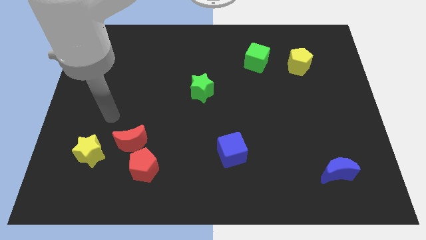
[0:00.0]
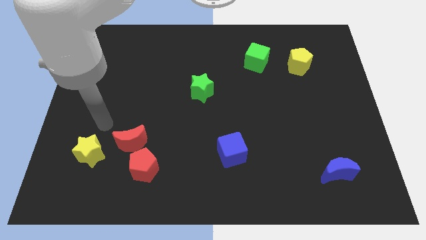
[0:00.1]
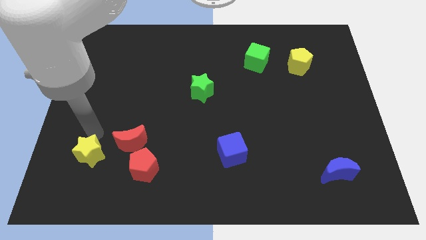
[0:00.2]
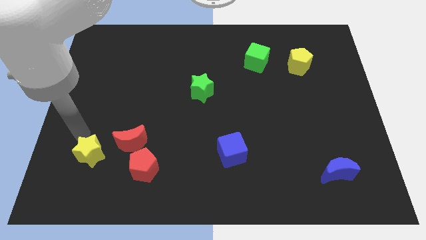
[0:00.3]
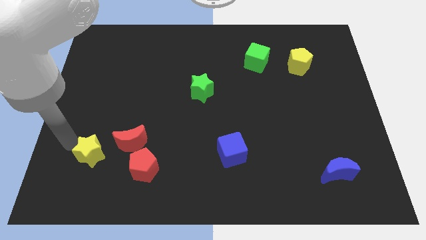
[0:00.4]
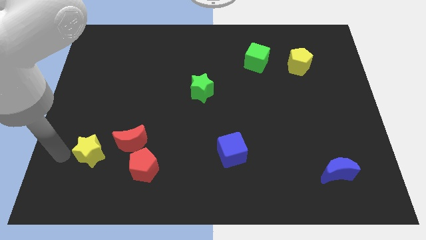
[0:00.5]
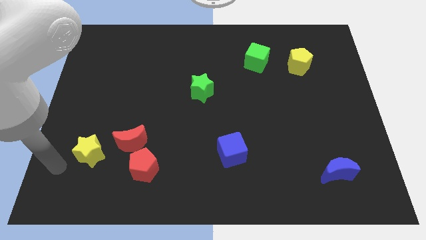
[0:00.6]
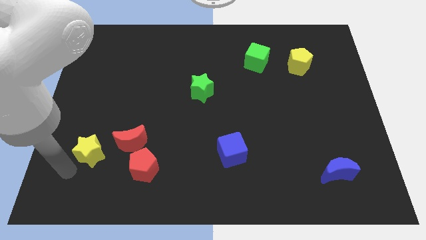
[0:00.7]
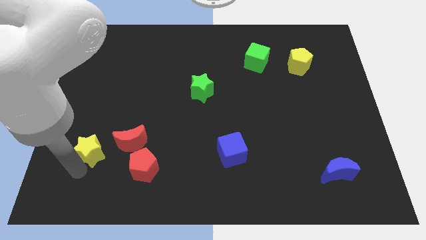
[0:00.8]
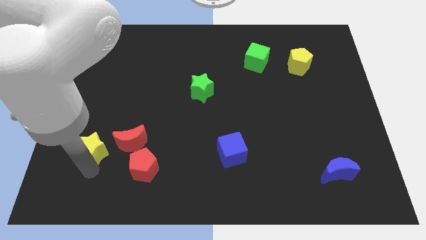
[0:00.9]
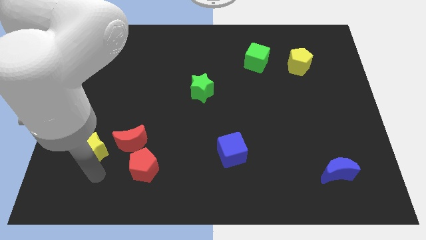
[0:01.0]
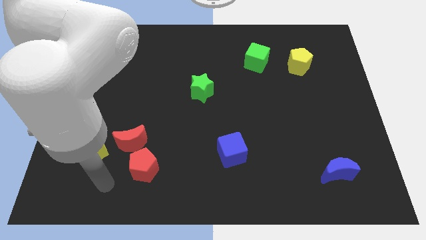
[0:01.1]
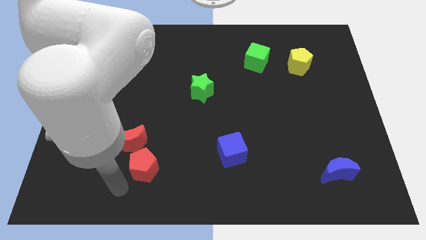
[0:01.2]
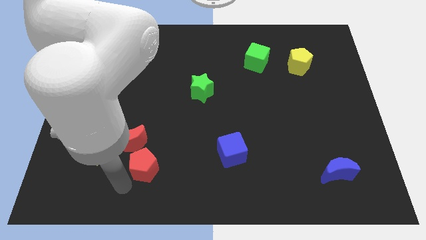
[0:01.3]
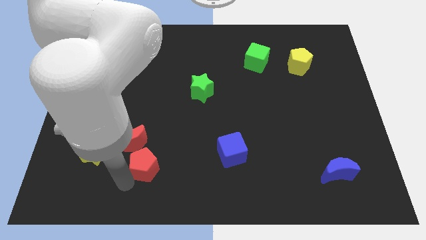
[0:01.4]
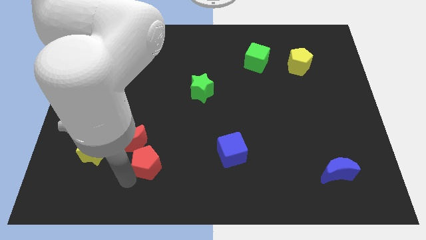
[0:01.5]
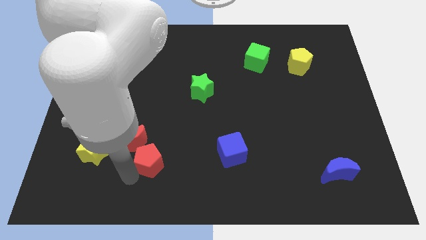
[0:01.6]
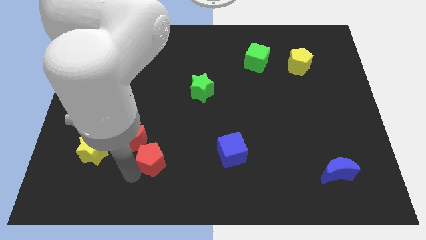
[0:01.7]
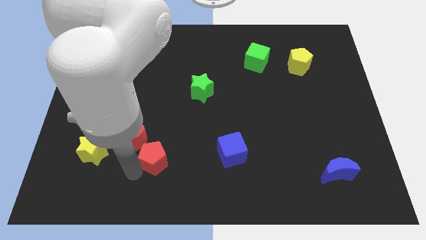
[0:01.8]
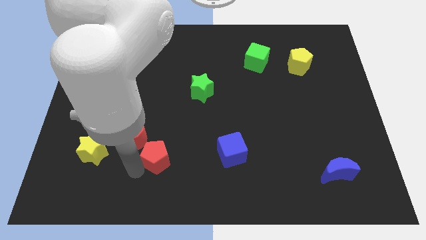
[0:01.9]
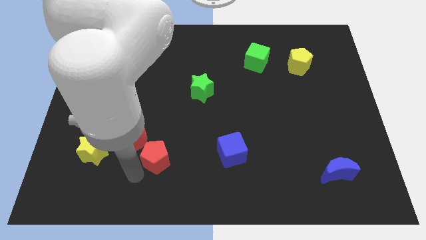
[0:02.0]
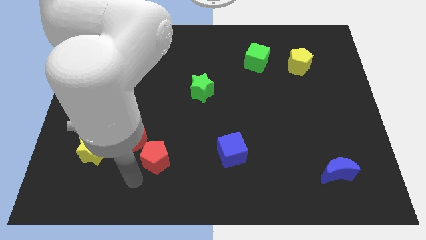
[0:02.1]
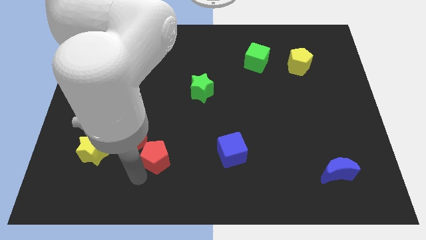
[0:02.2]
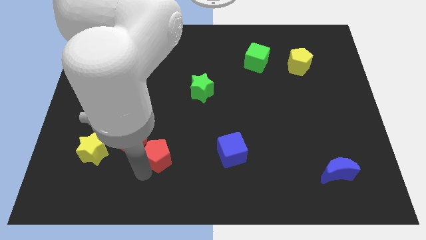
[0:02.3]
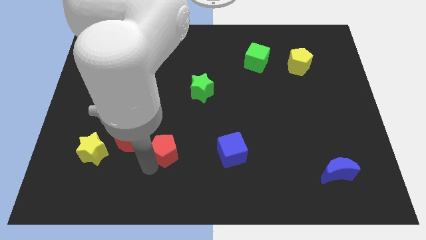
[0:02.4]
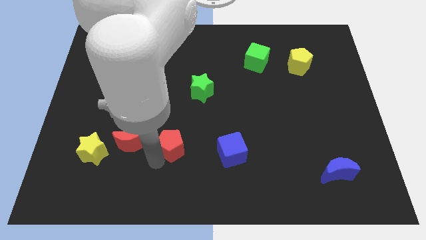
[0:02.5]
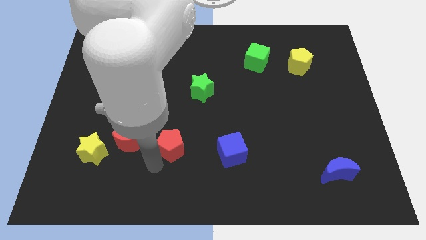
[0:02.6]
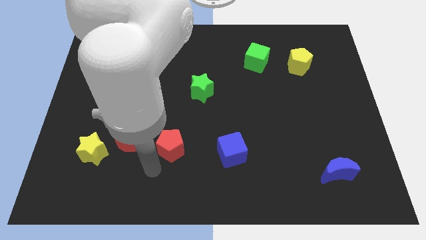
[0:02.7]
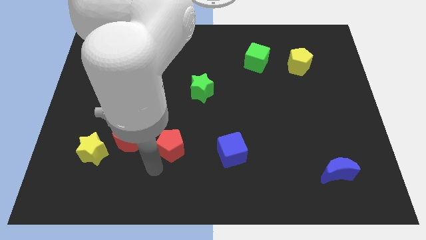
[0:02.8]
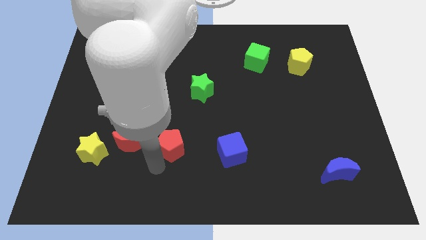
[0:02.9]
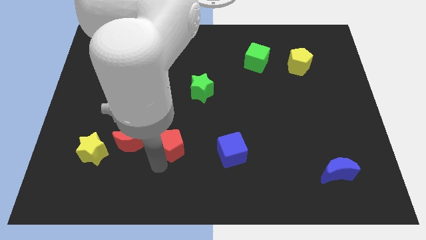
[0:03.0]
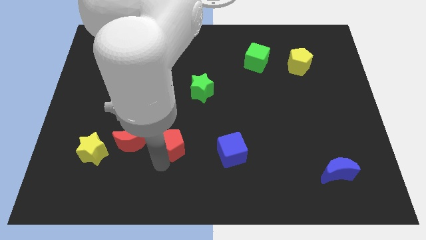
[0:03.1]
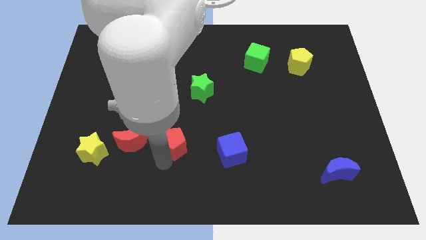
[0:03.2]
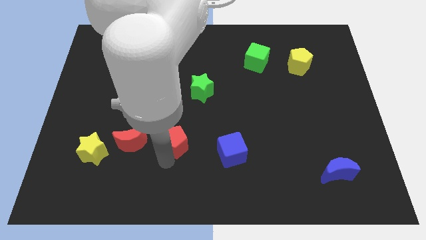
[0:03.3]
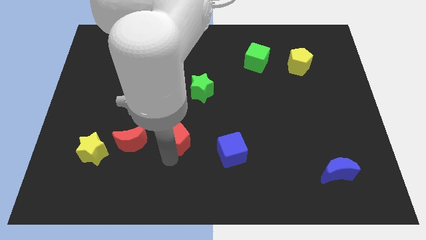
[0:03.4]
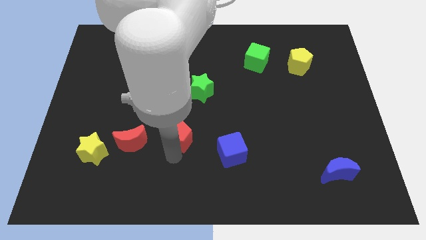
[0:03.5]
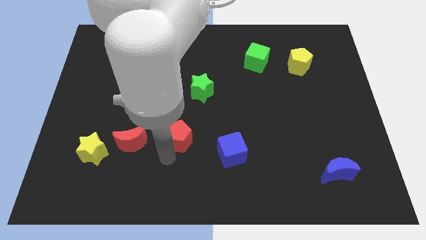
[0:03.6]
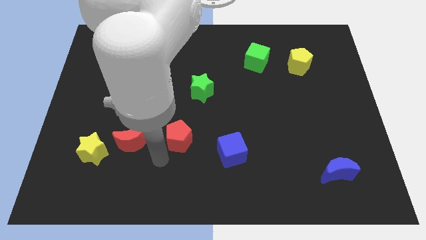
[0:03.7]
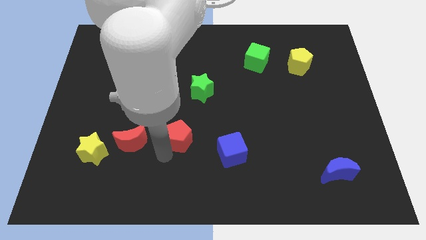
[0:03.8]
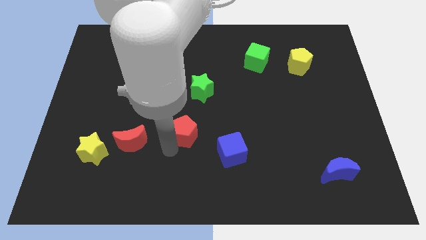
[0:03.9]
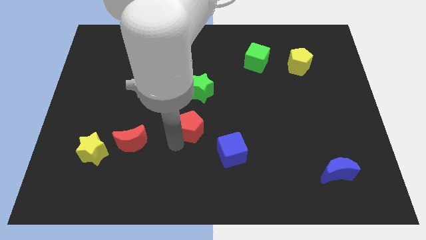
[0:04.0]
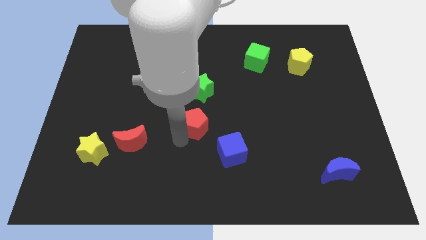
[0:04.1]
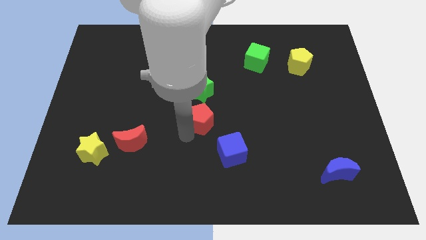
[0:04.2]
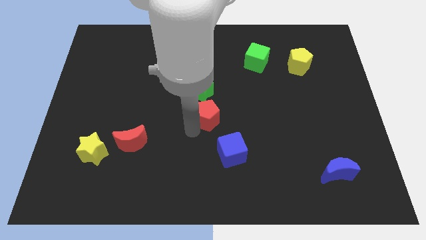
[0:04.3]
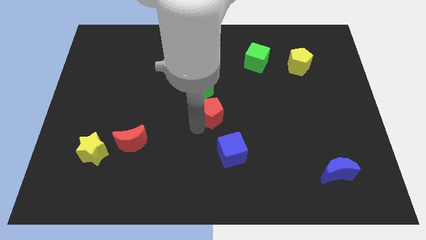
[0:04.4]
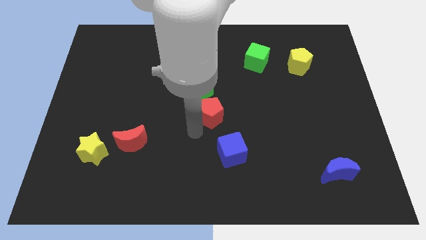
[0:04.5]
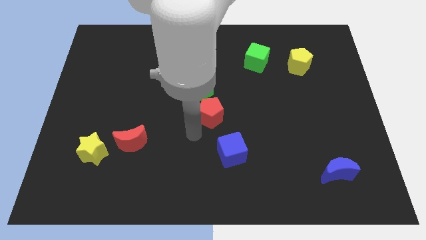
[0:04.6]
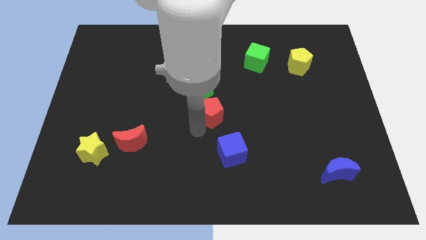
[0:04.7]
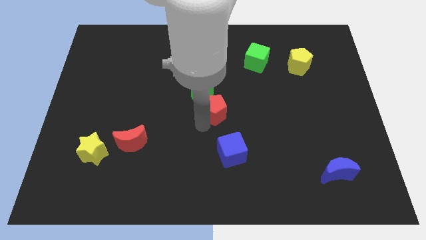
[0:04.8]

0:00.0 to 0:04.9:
slide the red pentagon diagonally up and to the right

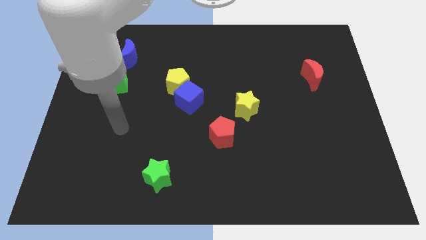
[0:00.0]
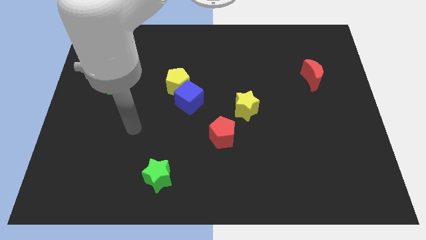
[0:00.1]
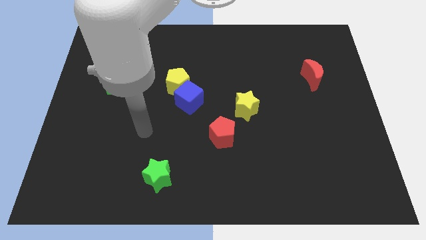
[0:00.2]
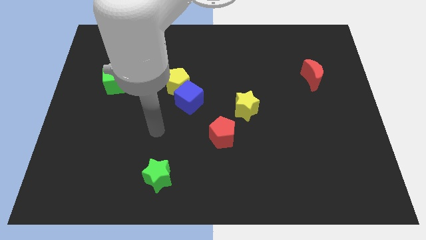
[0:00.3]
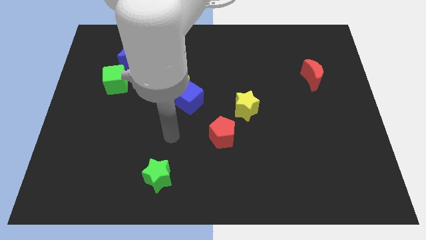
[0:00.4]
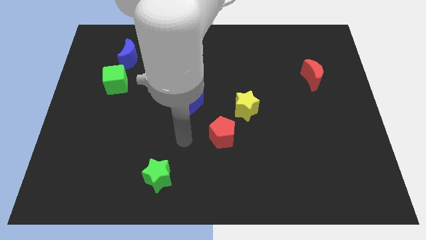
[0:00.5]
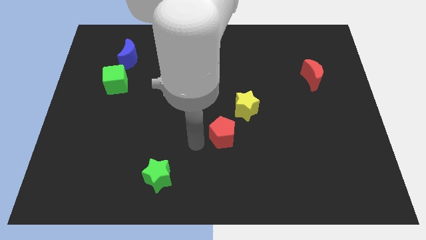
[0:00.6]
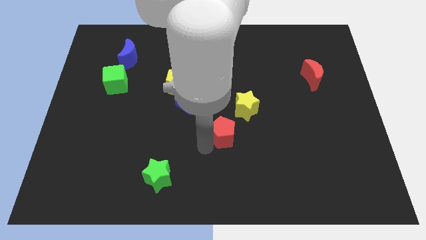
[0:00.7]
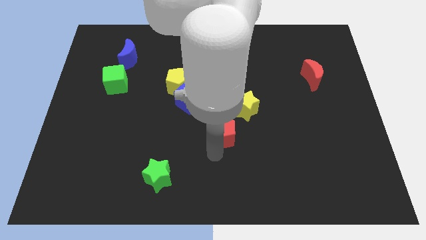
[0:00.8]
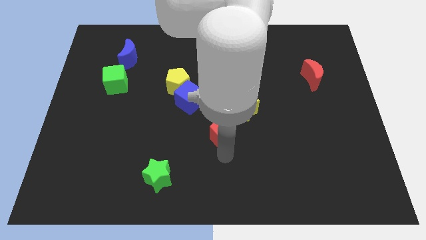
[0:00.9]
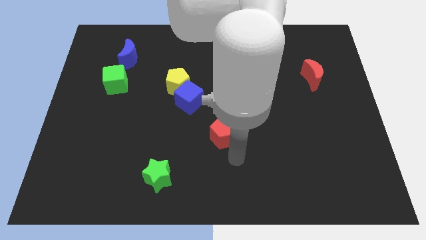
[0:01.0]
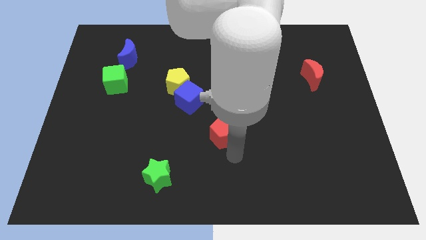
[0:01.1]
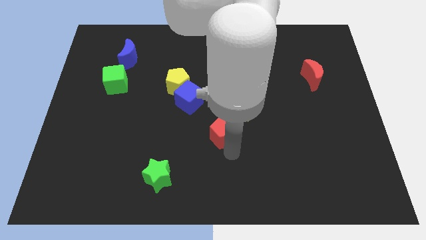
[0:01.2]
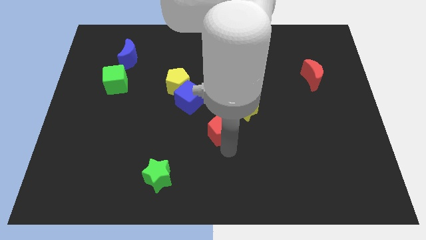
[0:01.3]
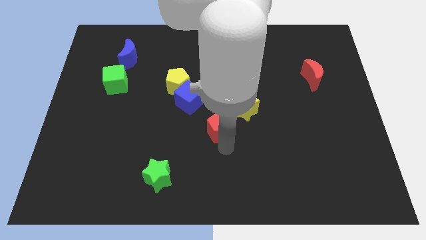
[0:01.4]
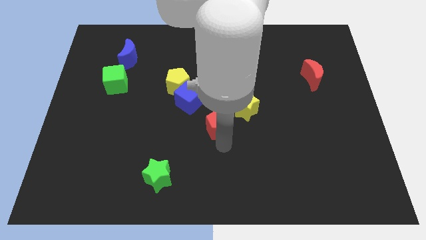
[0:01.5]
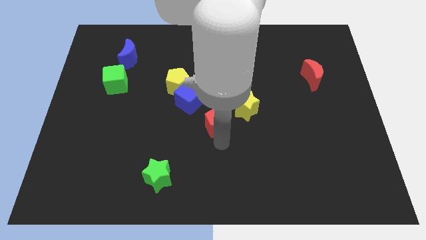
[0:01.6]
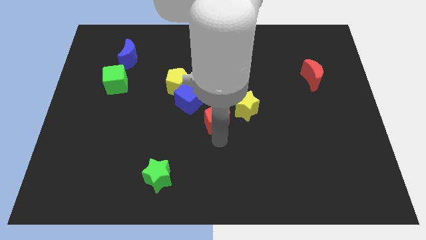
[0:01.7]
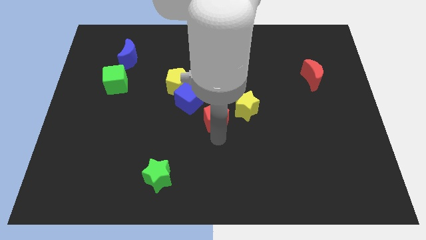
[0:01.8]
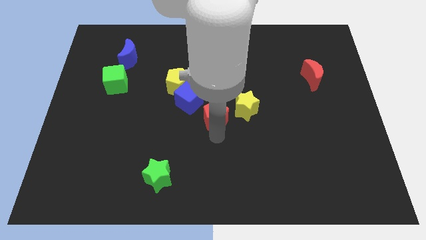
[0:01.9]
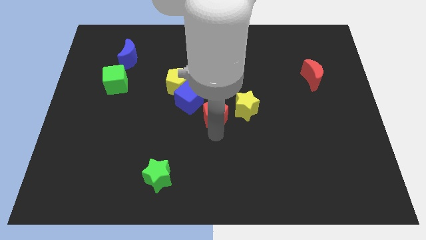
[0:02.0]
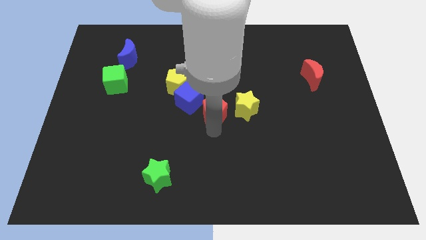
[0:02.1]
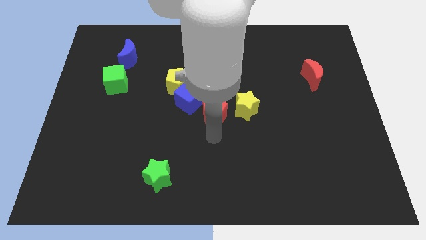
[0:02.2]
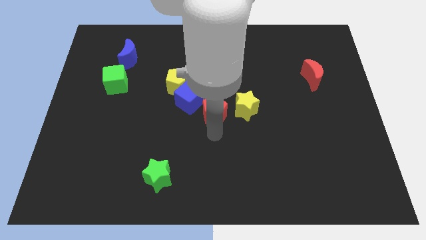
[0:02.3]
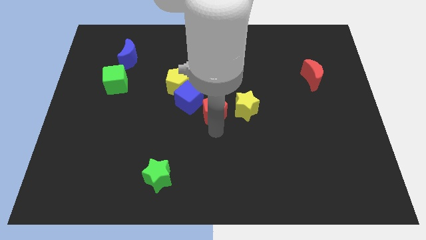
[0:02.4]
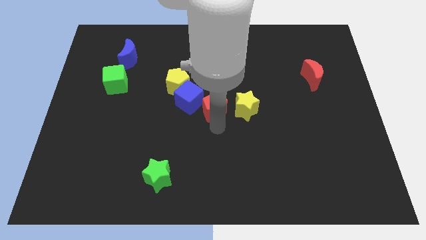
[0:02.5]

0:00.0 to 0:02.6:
push the red pentagon a little upwards

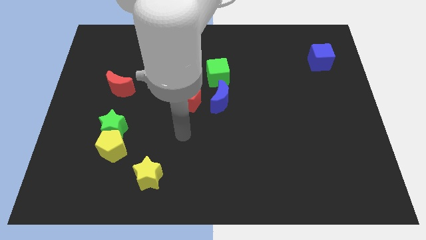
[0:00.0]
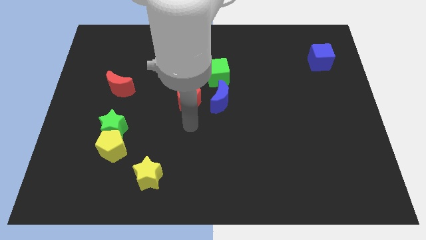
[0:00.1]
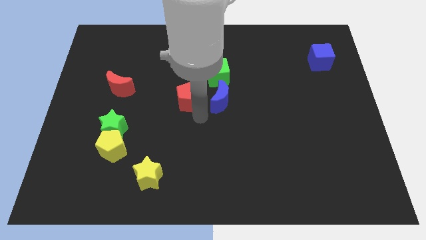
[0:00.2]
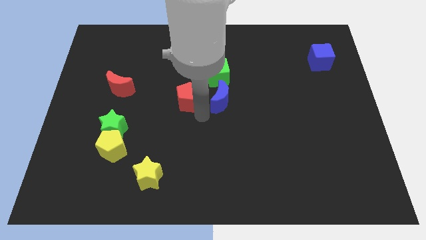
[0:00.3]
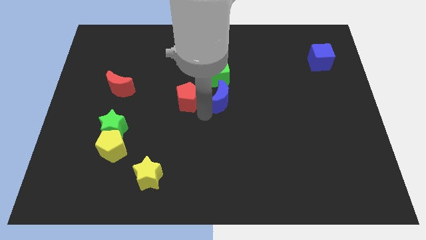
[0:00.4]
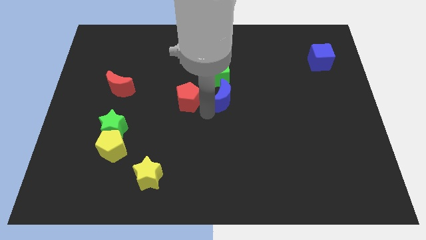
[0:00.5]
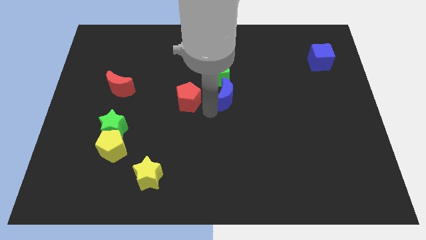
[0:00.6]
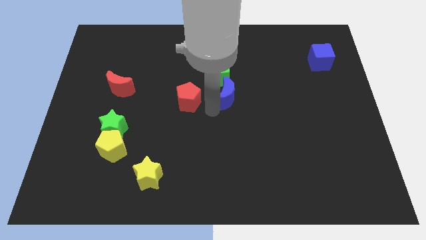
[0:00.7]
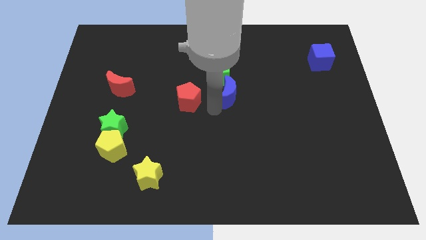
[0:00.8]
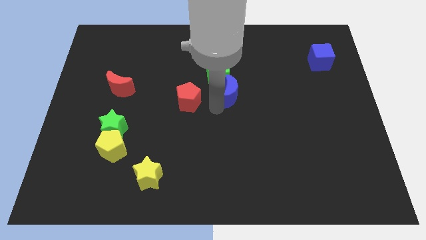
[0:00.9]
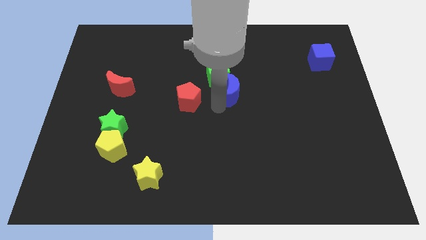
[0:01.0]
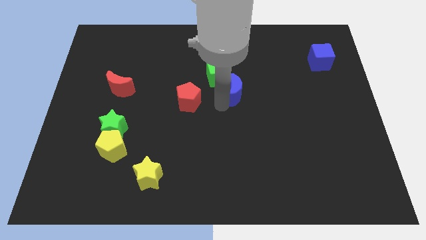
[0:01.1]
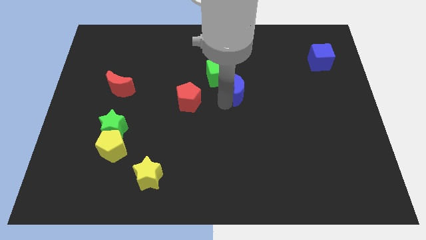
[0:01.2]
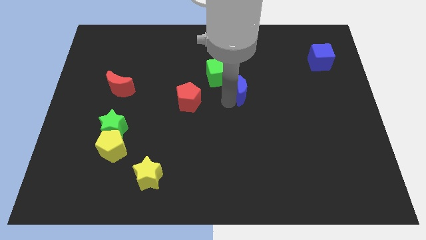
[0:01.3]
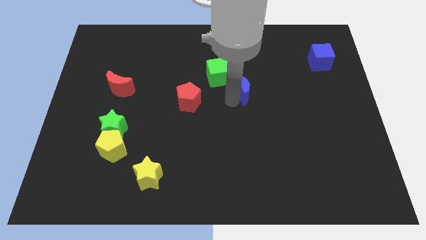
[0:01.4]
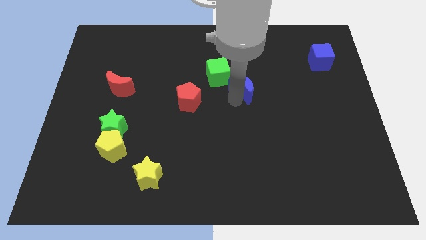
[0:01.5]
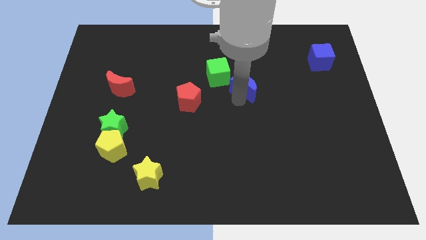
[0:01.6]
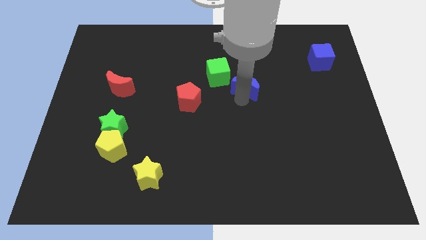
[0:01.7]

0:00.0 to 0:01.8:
slide the blue moon slightly upwards and right
